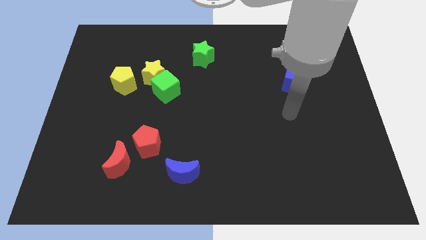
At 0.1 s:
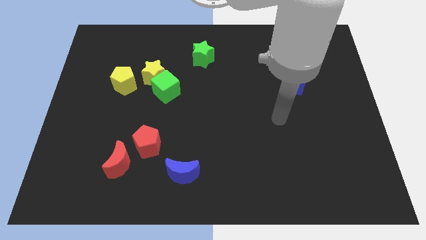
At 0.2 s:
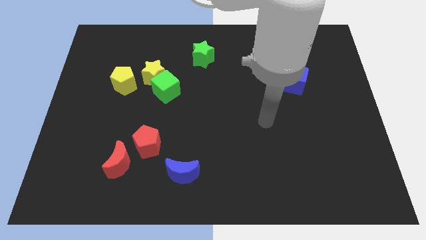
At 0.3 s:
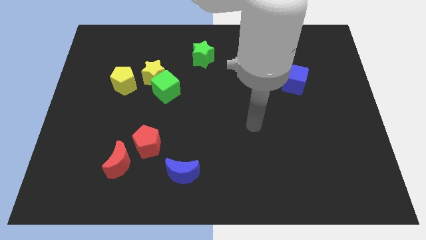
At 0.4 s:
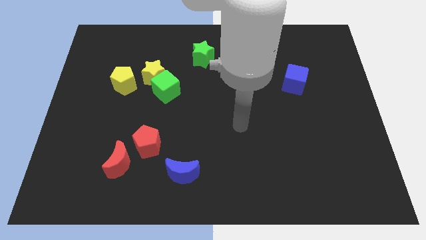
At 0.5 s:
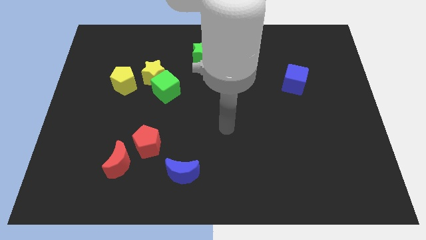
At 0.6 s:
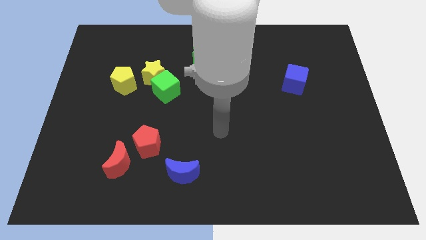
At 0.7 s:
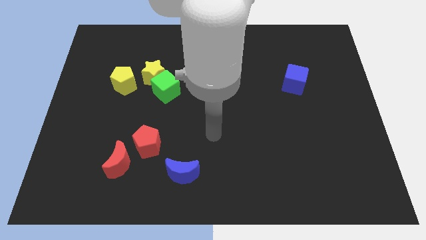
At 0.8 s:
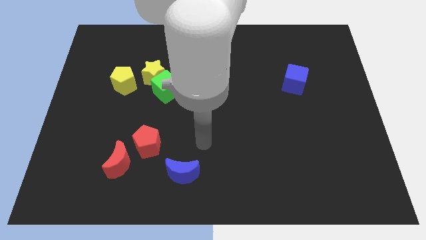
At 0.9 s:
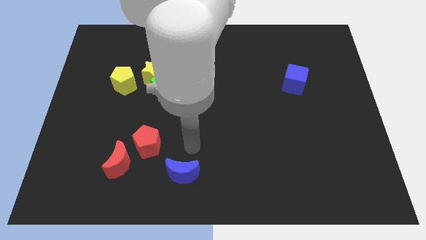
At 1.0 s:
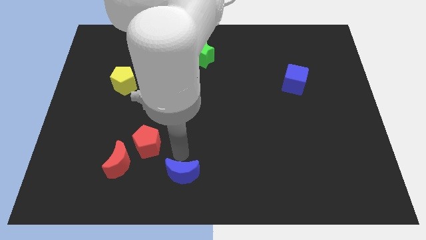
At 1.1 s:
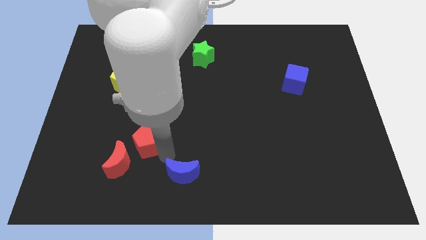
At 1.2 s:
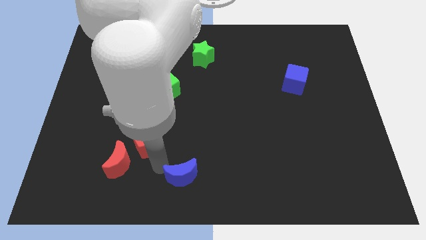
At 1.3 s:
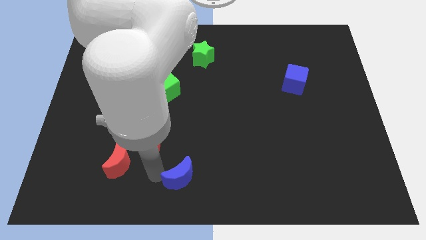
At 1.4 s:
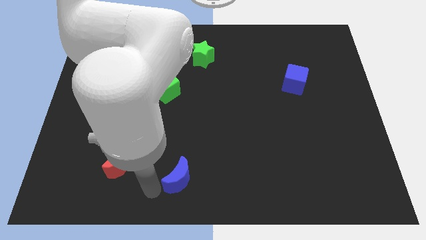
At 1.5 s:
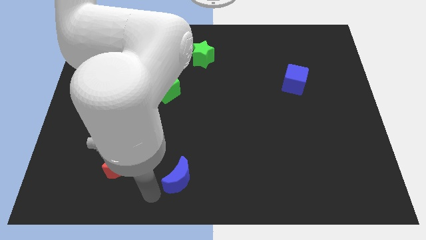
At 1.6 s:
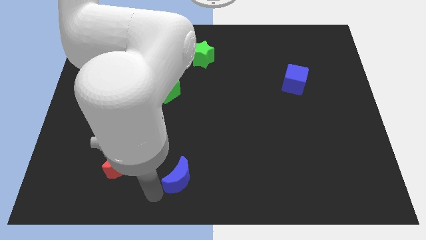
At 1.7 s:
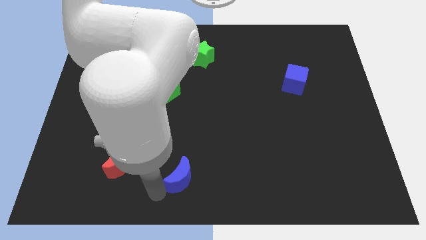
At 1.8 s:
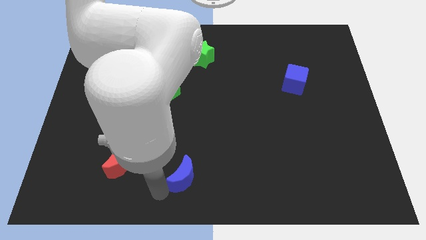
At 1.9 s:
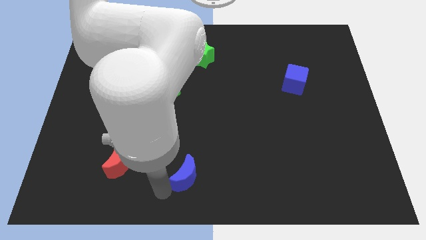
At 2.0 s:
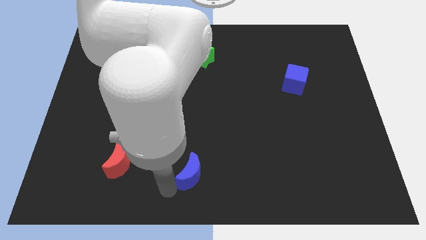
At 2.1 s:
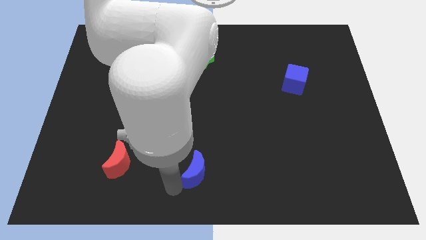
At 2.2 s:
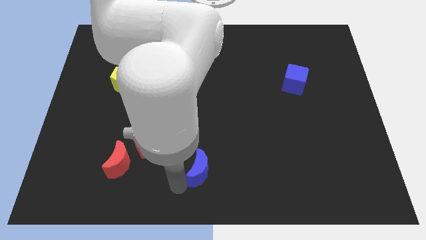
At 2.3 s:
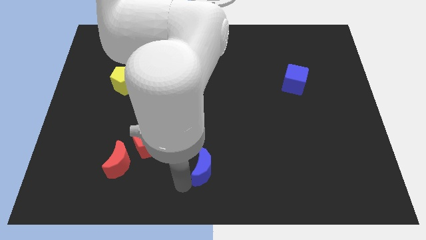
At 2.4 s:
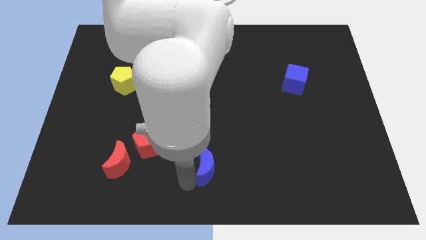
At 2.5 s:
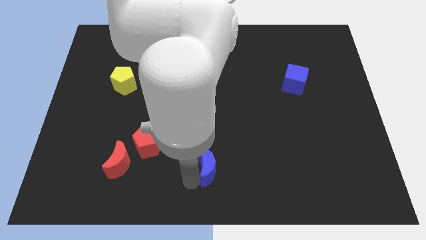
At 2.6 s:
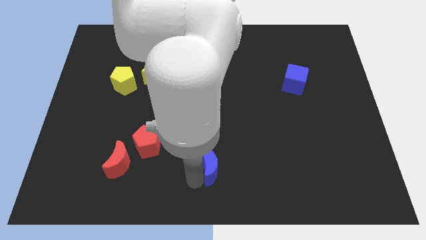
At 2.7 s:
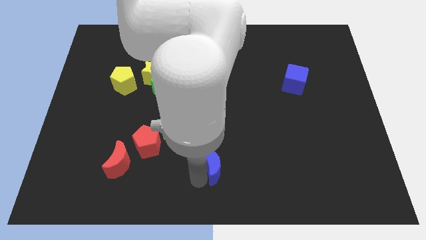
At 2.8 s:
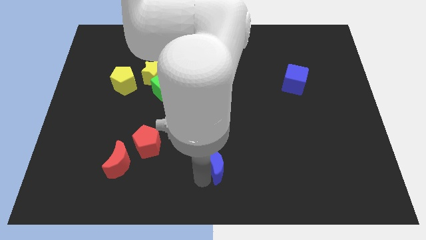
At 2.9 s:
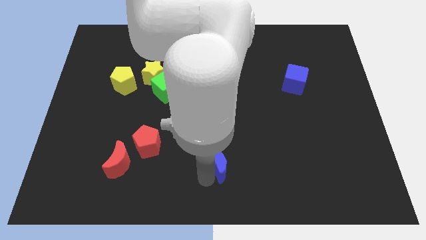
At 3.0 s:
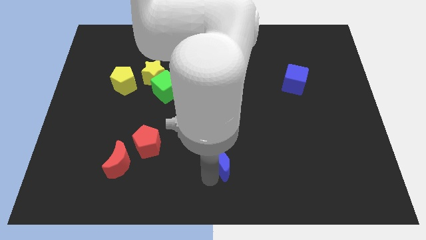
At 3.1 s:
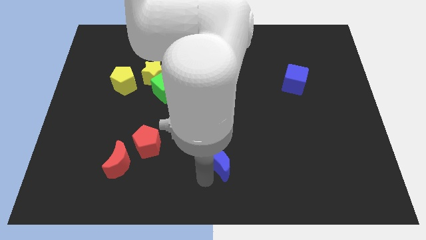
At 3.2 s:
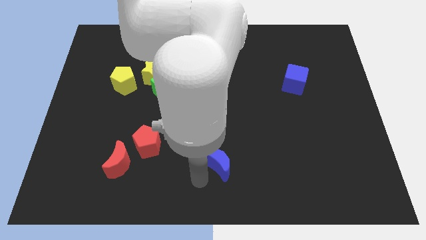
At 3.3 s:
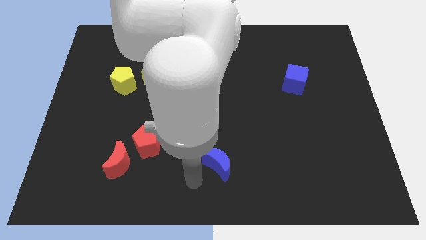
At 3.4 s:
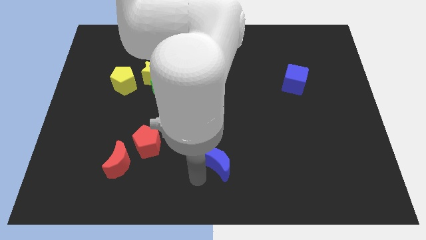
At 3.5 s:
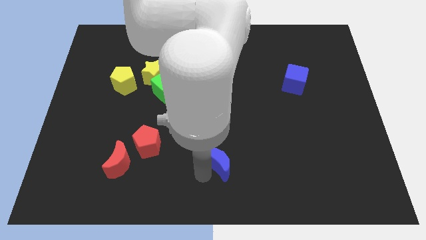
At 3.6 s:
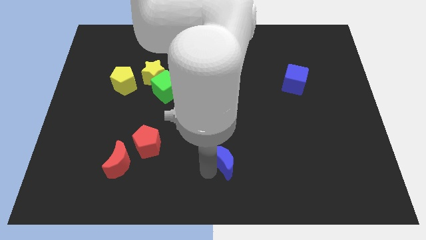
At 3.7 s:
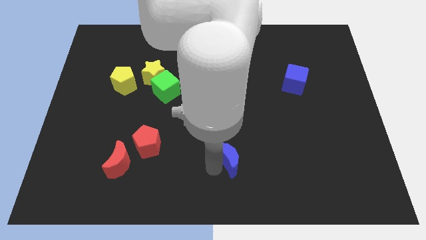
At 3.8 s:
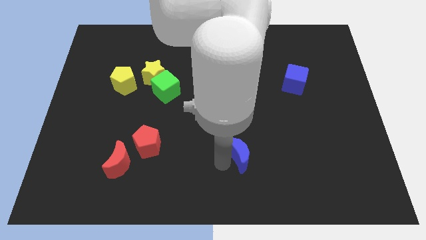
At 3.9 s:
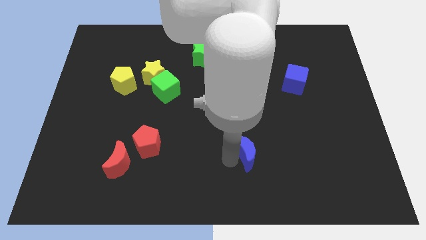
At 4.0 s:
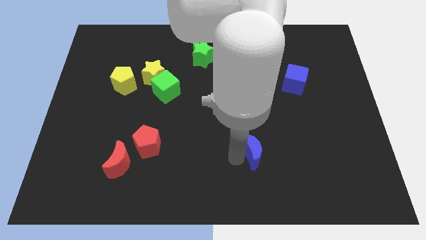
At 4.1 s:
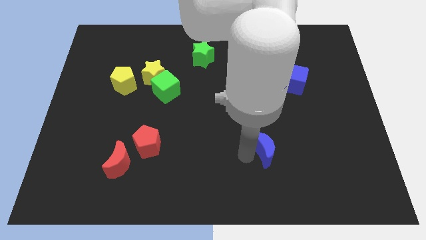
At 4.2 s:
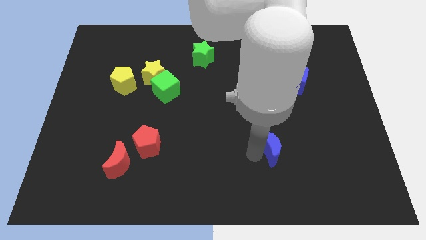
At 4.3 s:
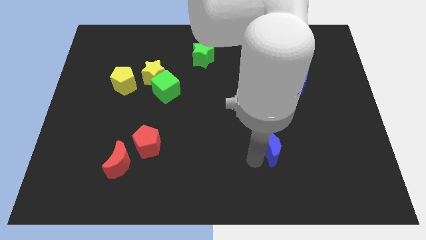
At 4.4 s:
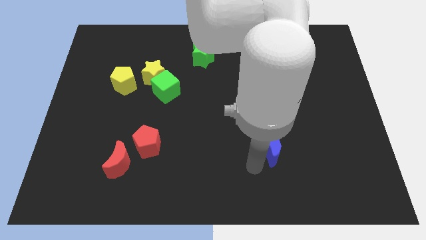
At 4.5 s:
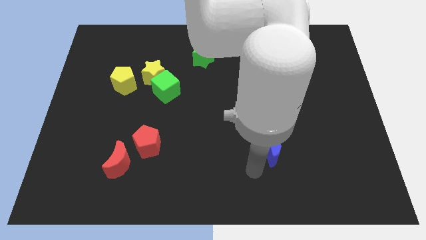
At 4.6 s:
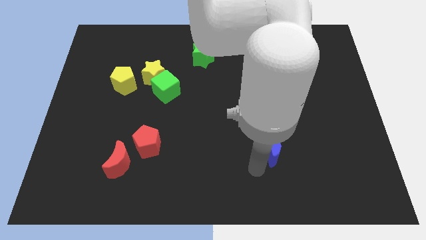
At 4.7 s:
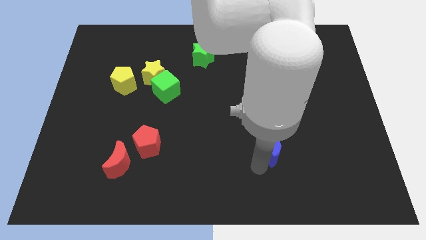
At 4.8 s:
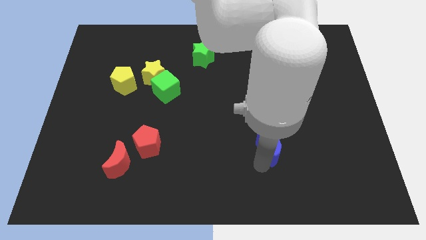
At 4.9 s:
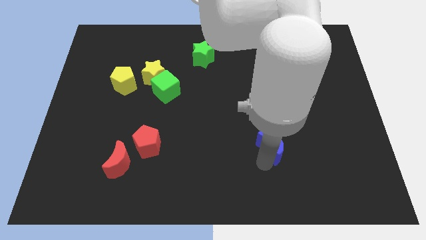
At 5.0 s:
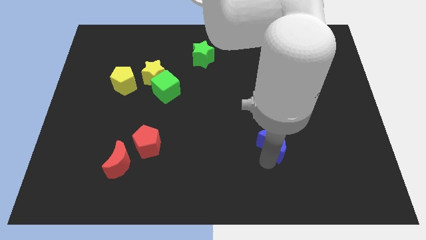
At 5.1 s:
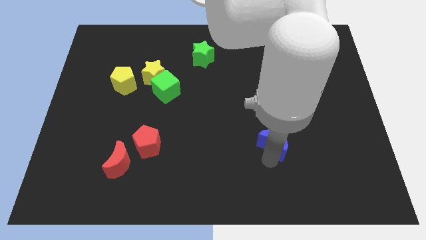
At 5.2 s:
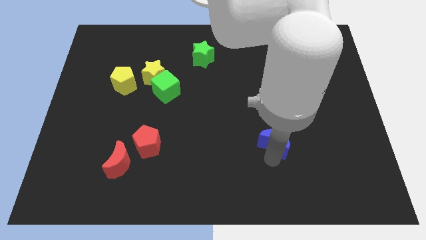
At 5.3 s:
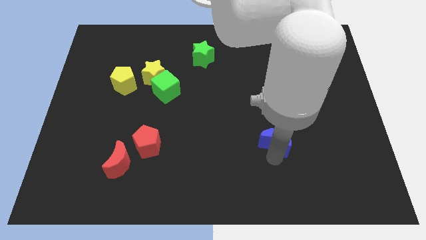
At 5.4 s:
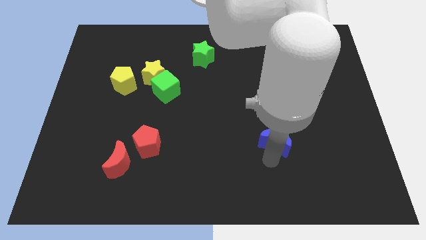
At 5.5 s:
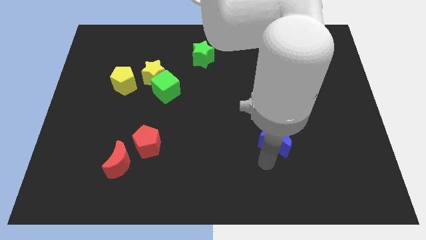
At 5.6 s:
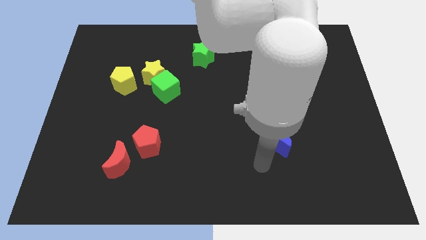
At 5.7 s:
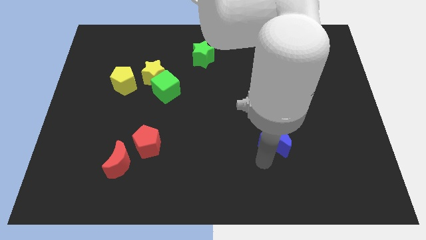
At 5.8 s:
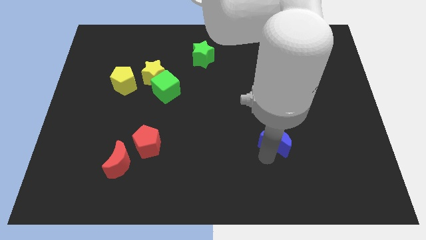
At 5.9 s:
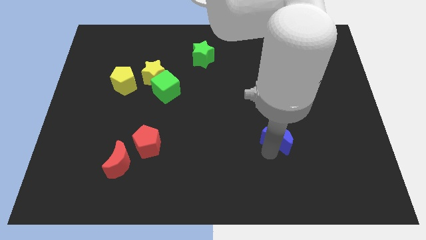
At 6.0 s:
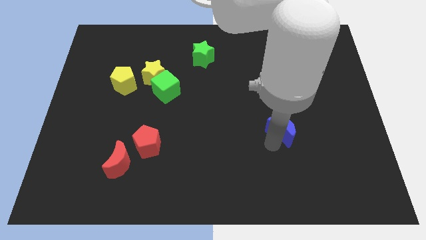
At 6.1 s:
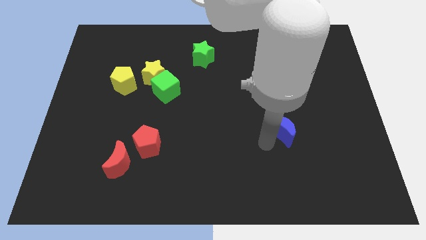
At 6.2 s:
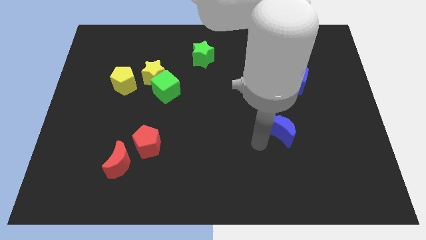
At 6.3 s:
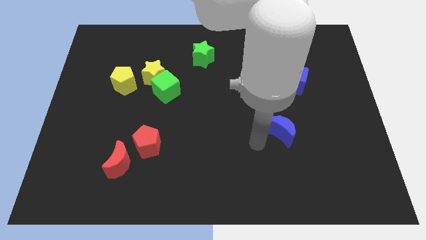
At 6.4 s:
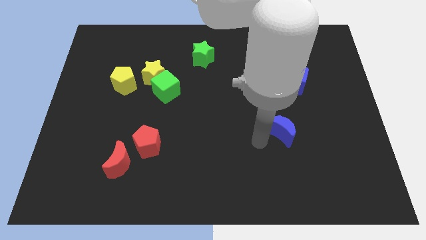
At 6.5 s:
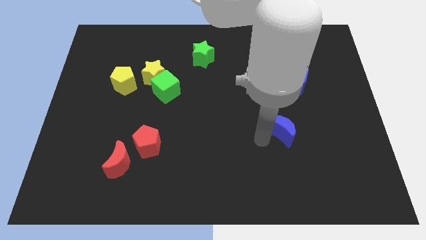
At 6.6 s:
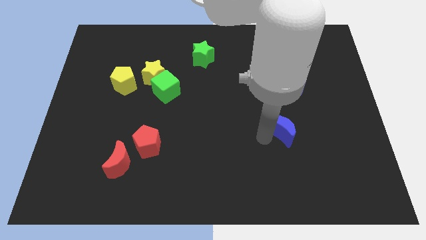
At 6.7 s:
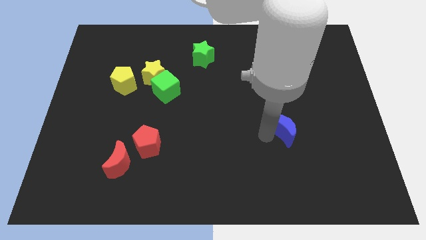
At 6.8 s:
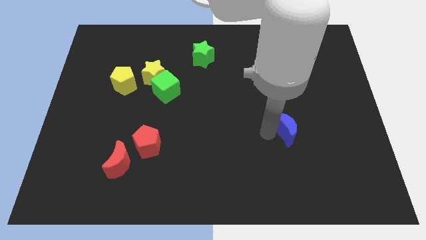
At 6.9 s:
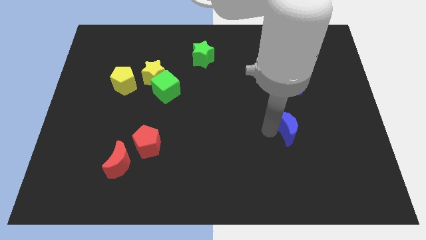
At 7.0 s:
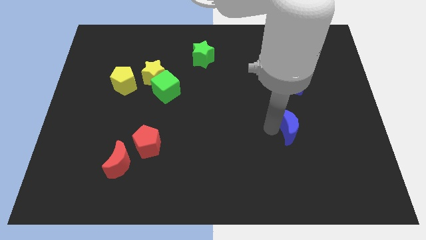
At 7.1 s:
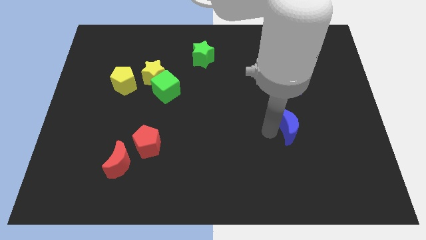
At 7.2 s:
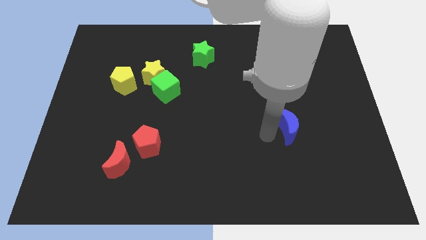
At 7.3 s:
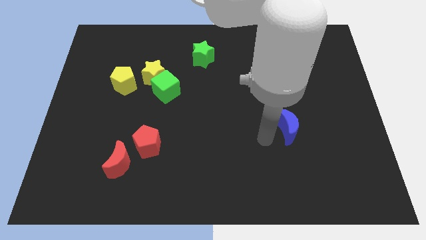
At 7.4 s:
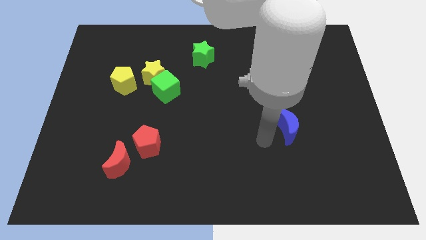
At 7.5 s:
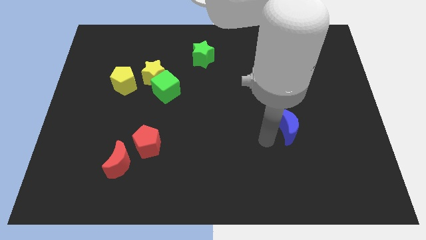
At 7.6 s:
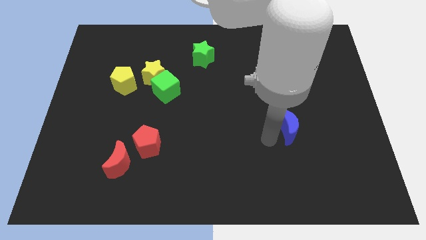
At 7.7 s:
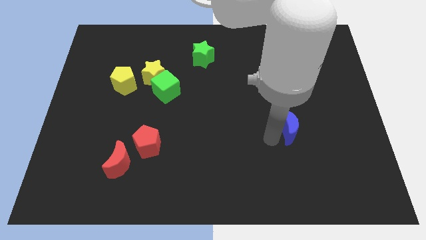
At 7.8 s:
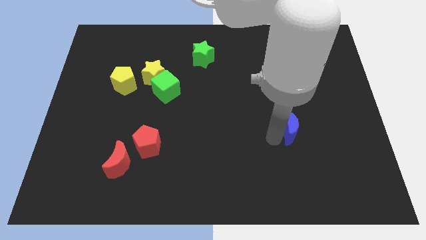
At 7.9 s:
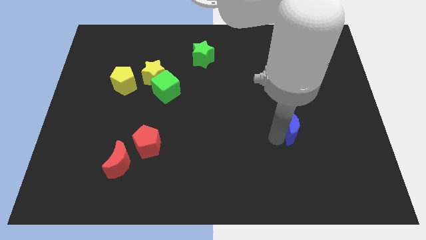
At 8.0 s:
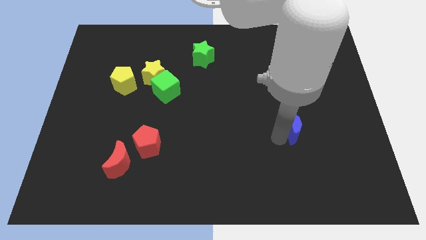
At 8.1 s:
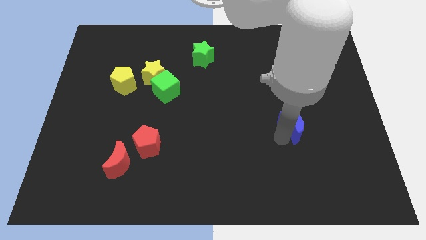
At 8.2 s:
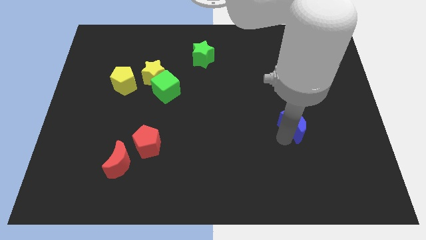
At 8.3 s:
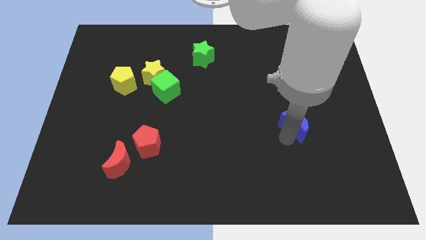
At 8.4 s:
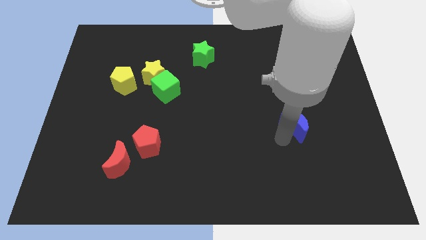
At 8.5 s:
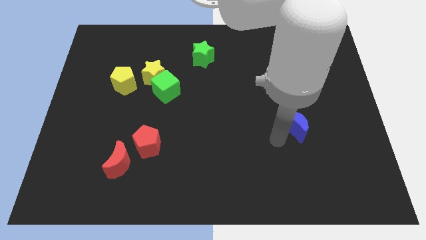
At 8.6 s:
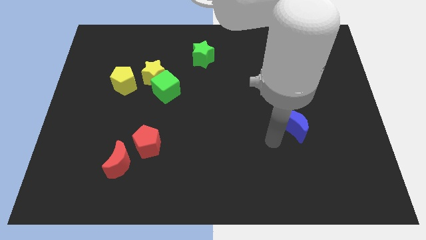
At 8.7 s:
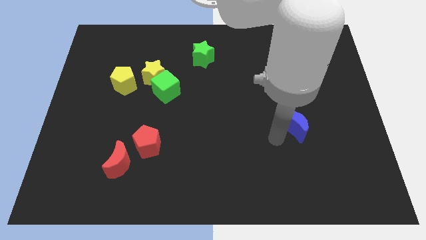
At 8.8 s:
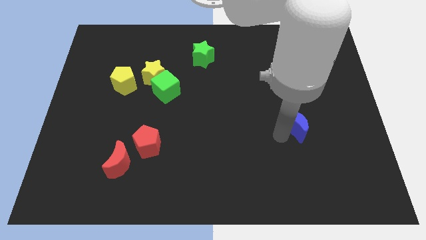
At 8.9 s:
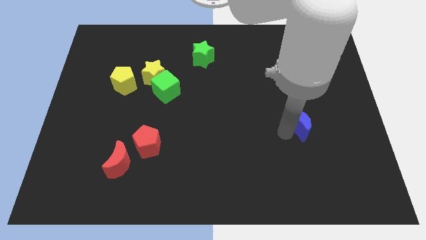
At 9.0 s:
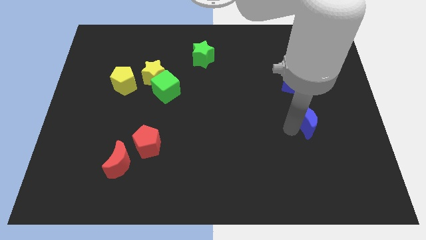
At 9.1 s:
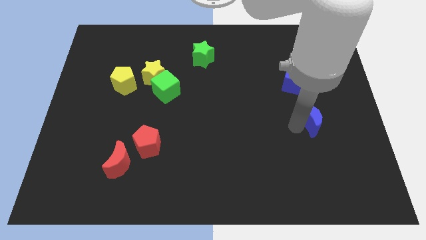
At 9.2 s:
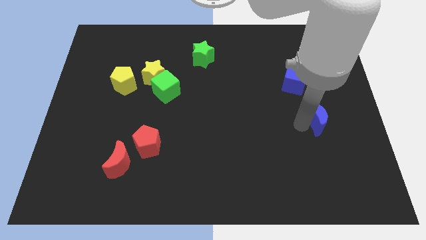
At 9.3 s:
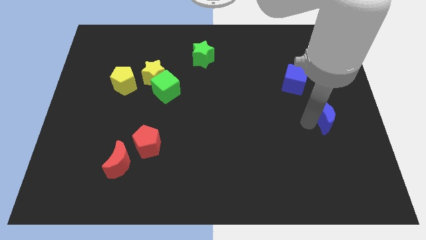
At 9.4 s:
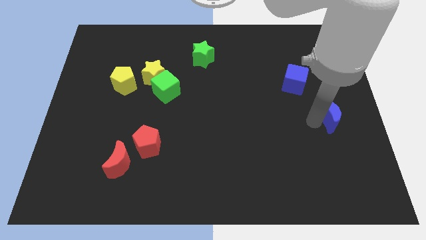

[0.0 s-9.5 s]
slide the blue moon to the right side of the board
